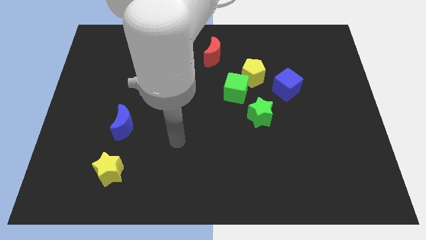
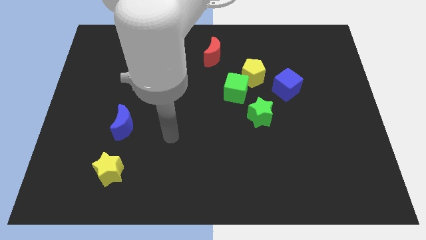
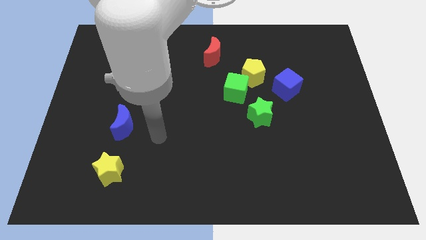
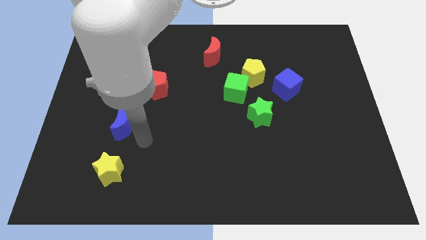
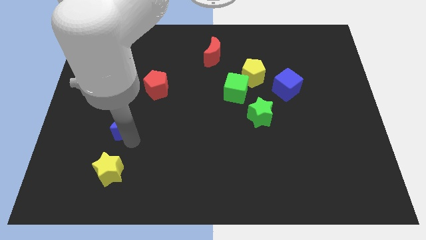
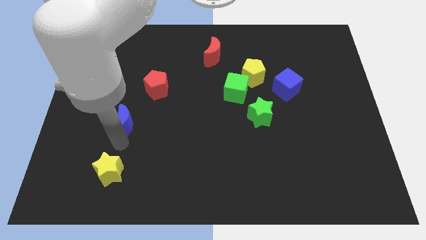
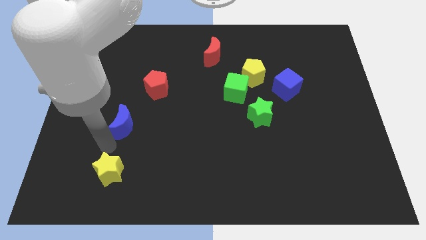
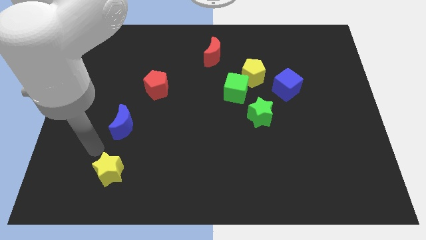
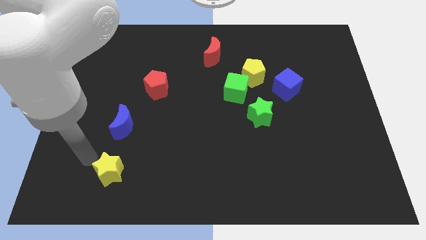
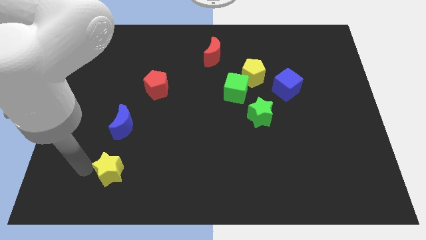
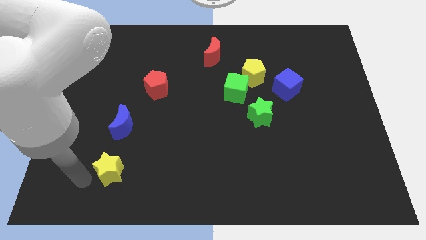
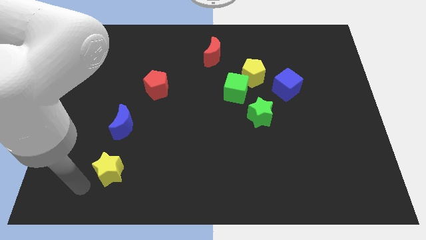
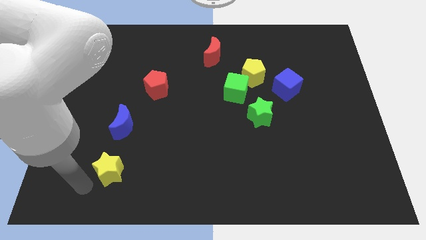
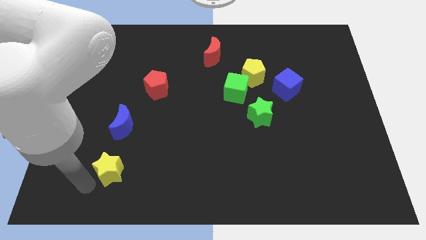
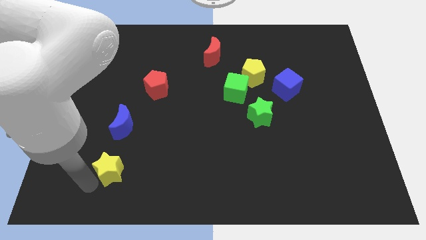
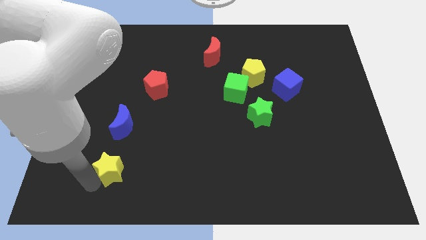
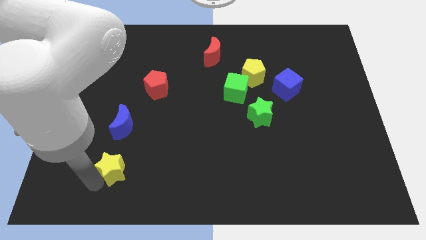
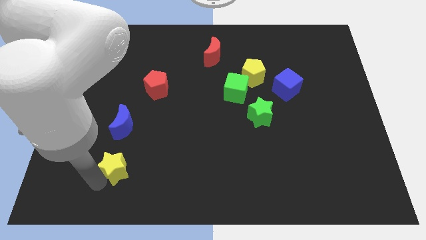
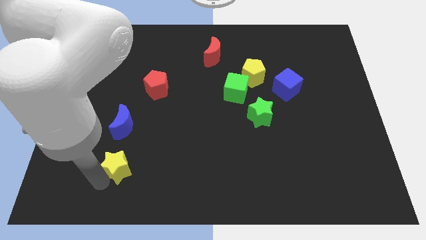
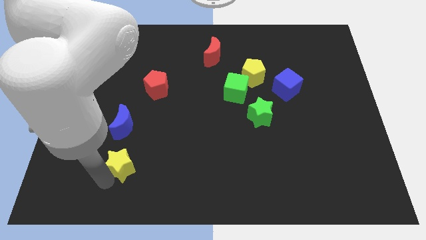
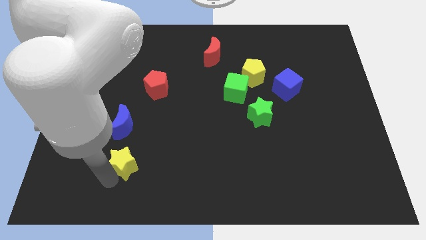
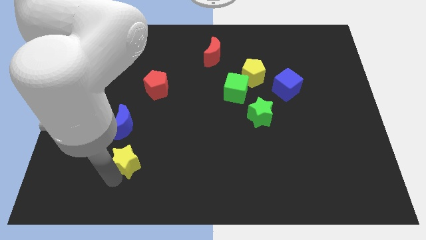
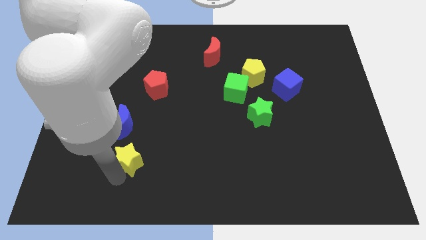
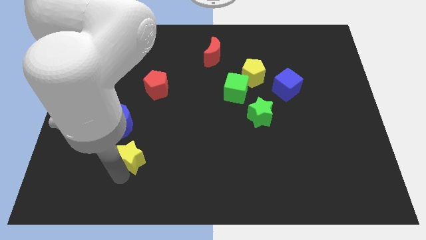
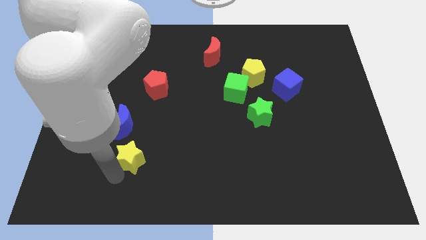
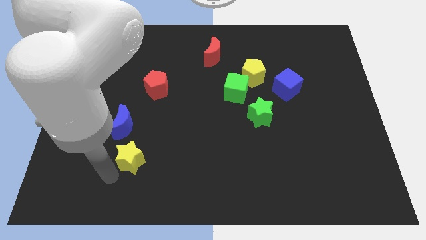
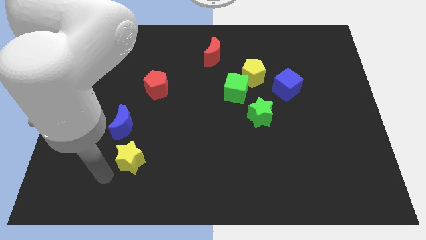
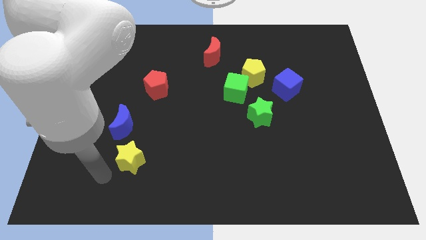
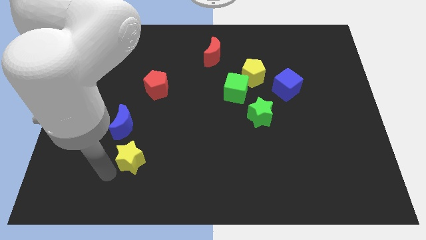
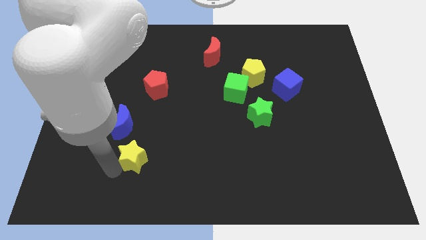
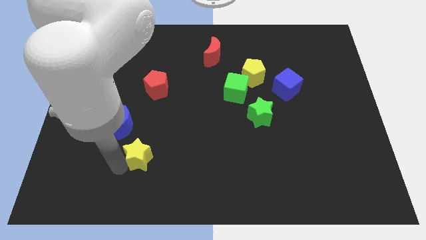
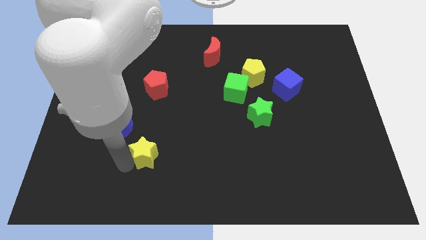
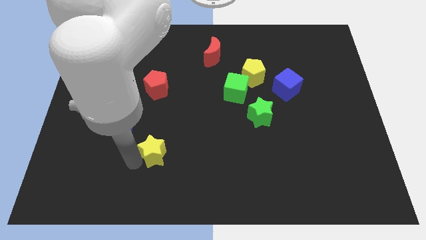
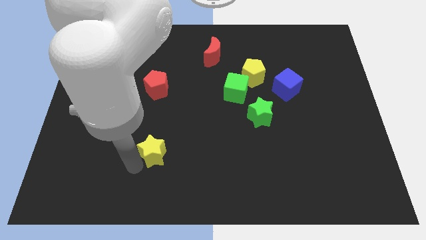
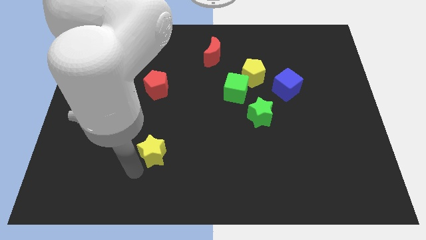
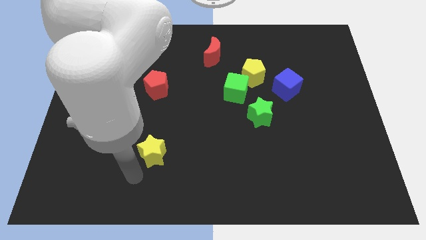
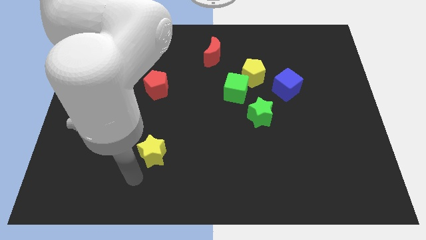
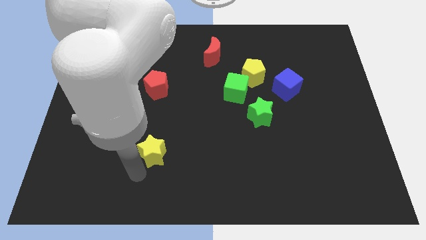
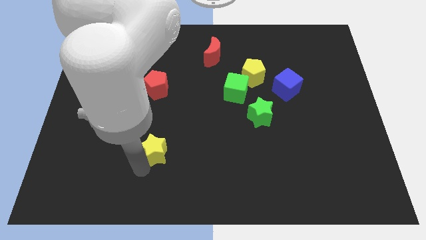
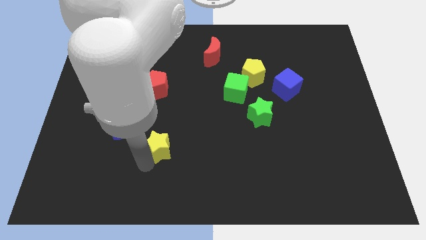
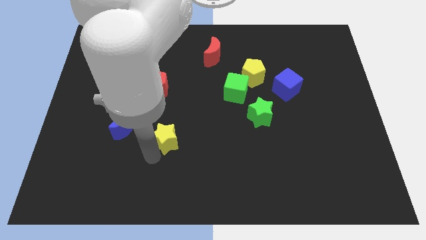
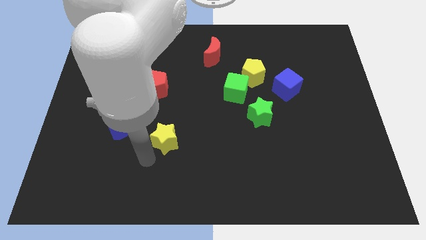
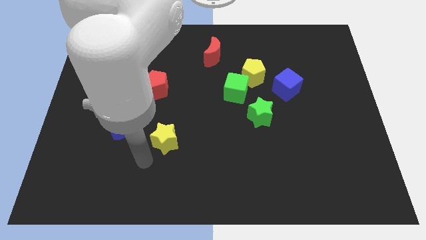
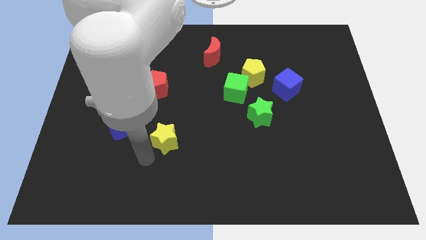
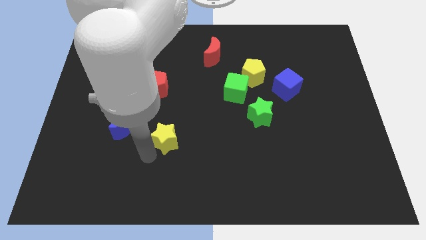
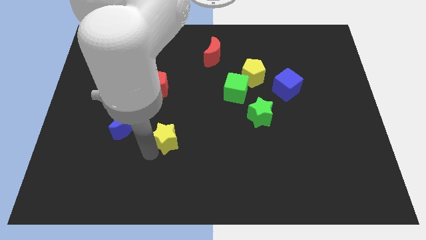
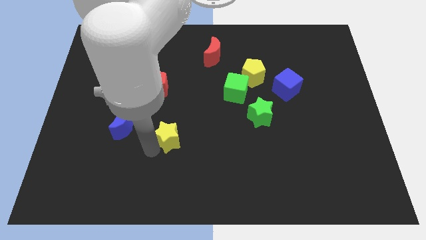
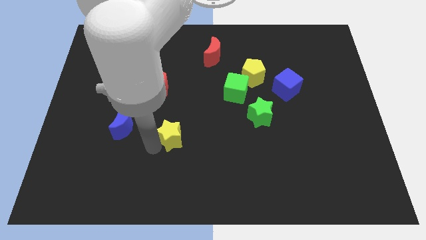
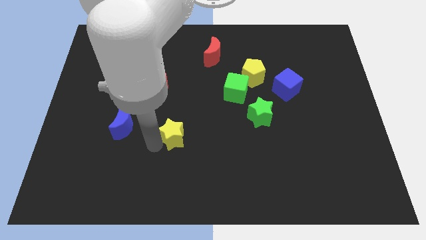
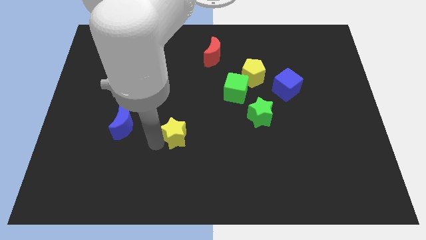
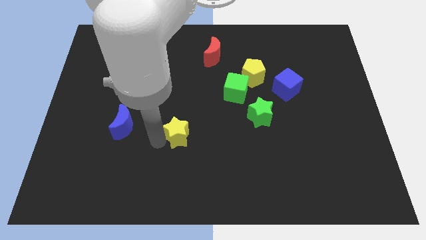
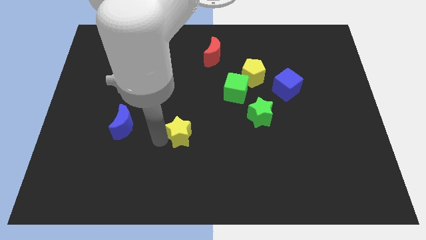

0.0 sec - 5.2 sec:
push the yellow star to the center

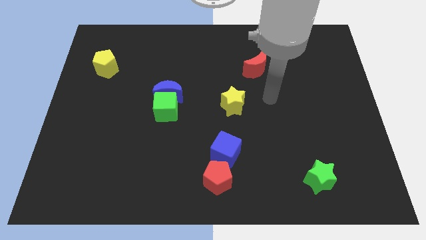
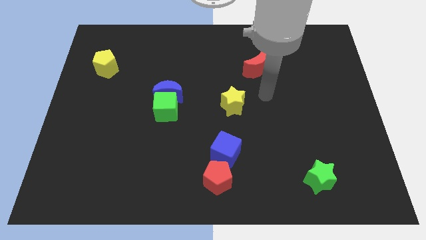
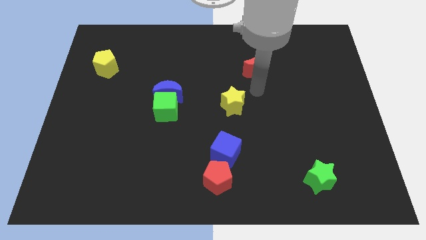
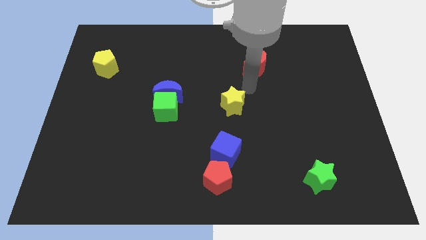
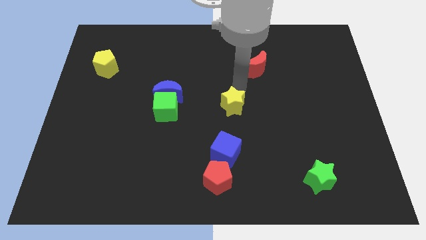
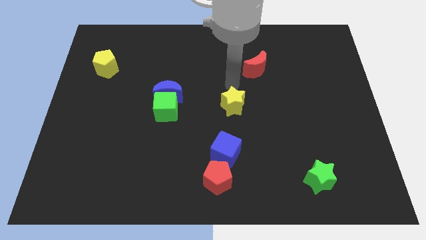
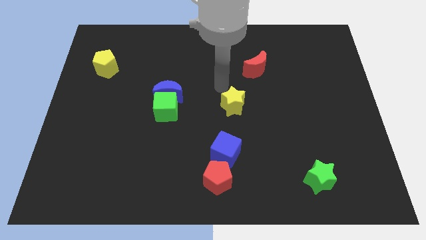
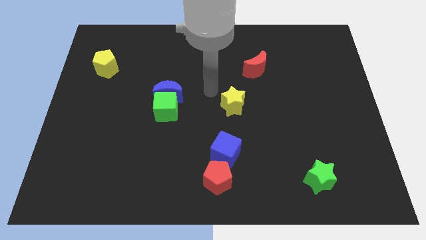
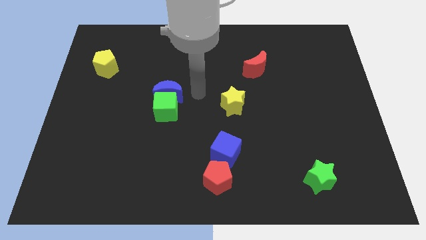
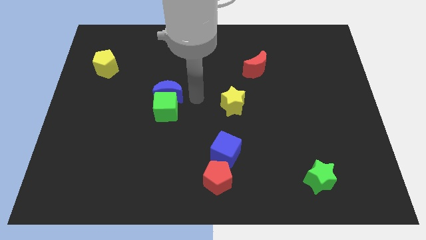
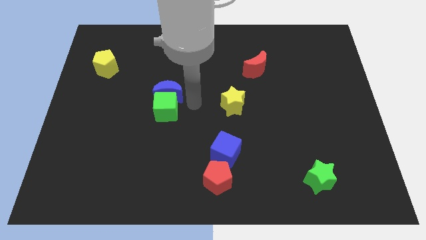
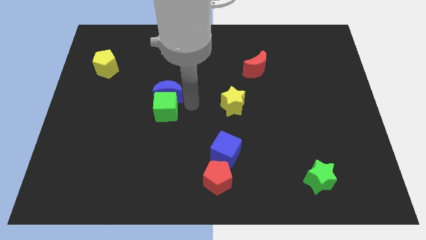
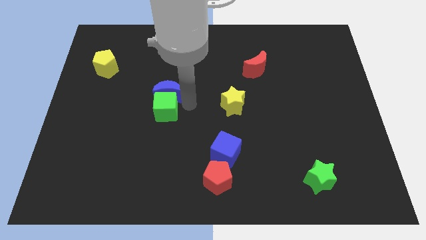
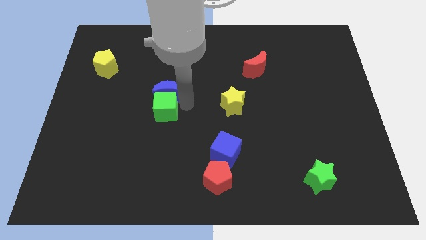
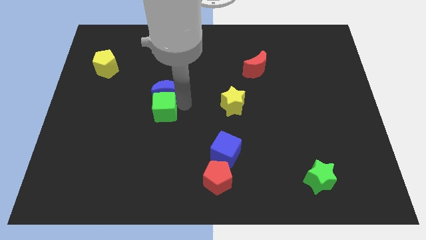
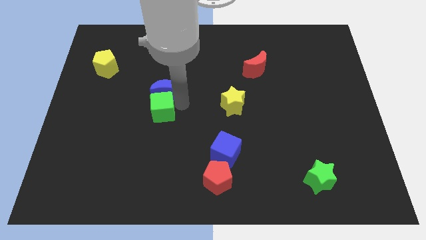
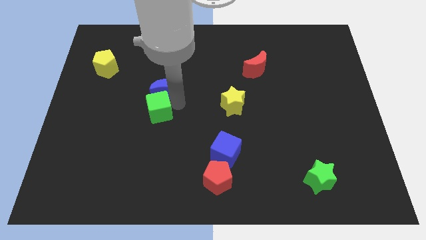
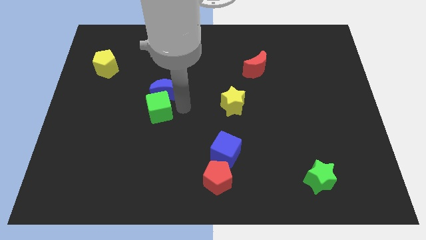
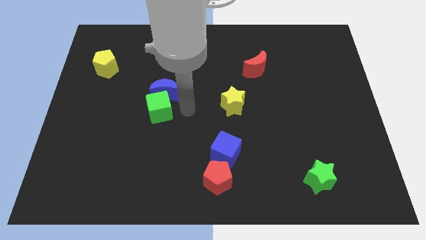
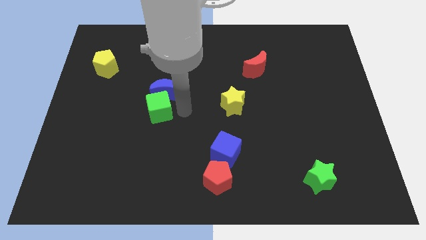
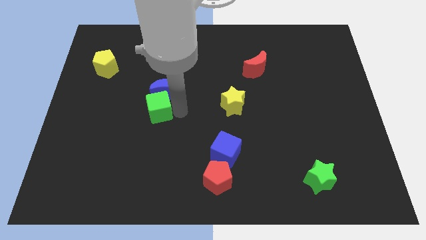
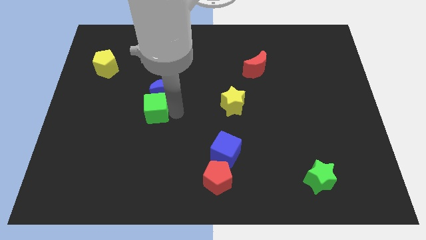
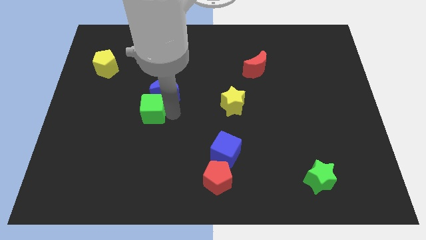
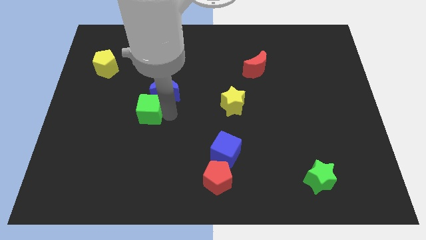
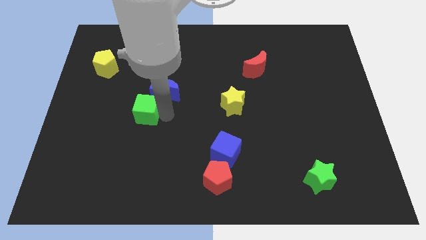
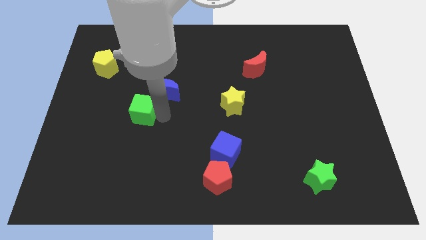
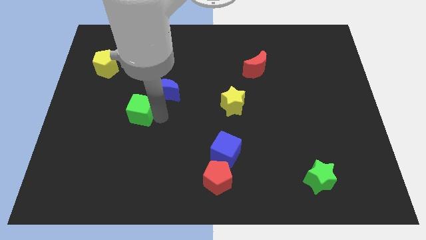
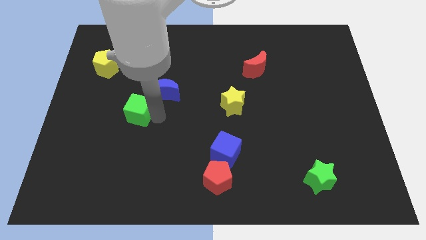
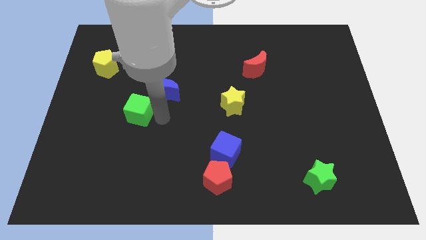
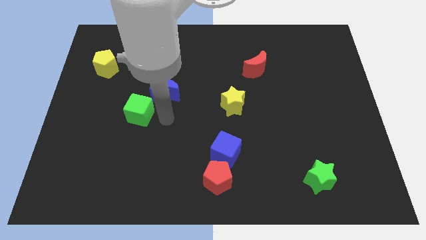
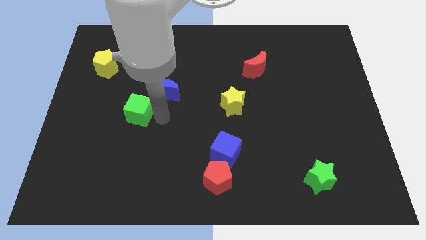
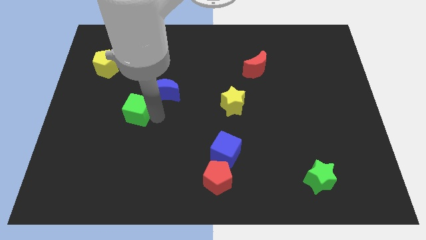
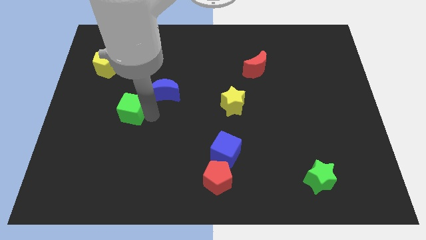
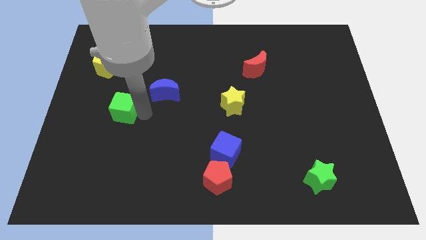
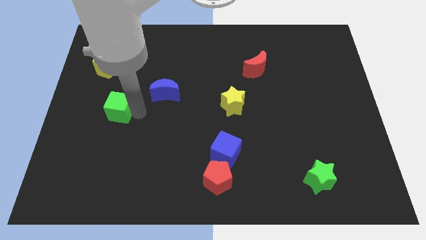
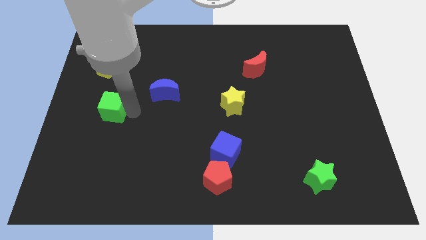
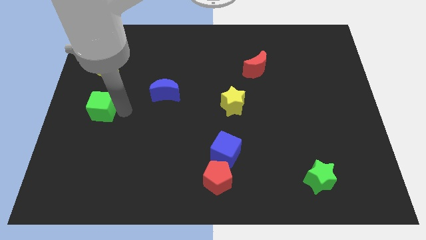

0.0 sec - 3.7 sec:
push the green cube to the left side
